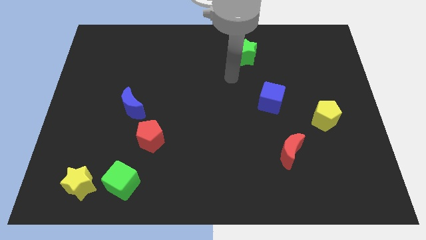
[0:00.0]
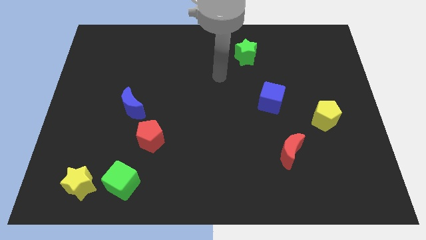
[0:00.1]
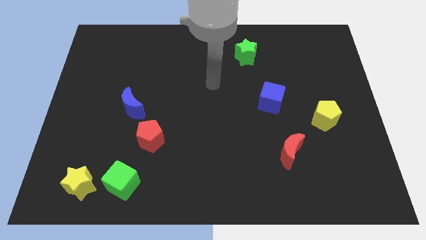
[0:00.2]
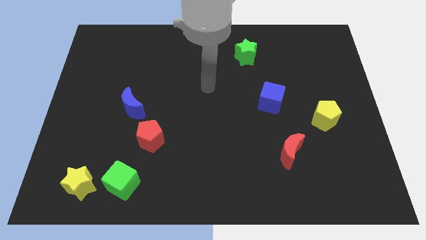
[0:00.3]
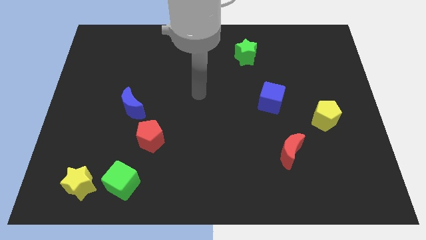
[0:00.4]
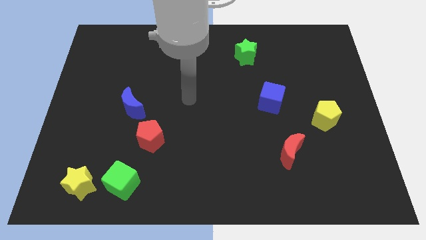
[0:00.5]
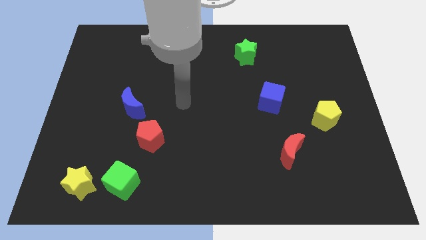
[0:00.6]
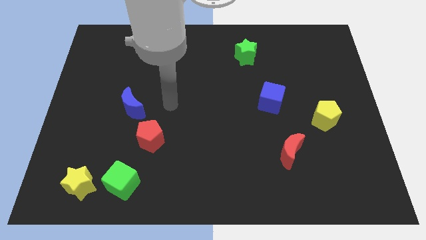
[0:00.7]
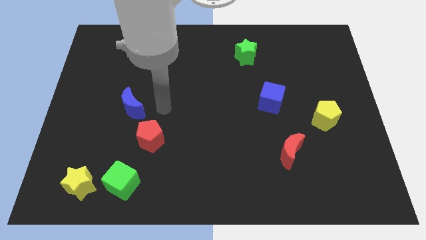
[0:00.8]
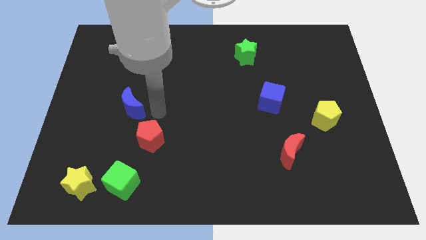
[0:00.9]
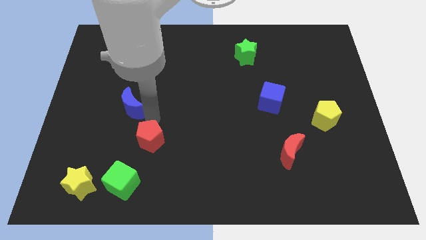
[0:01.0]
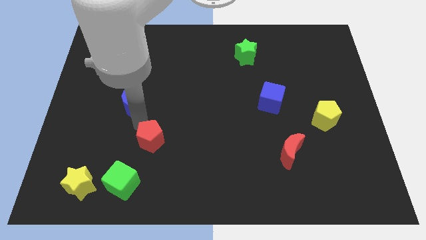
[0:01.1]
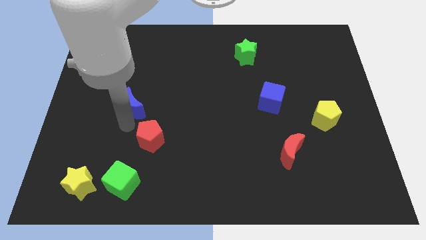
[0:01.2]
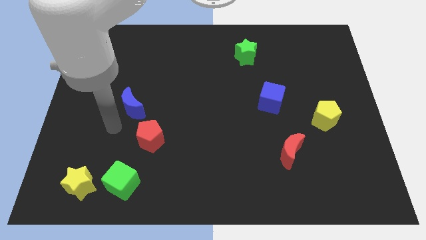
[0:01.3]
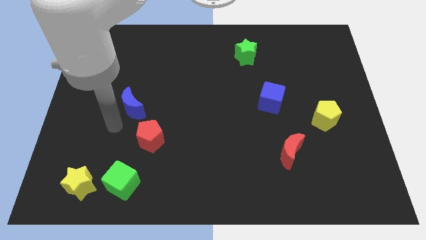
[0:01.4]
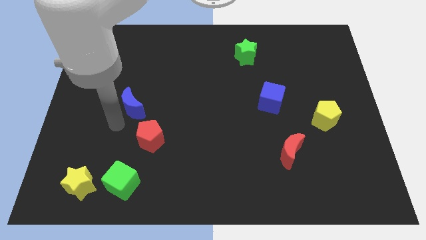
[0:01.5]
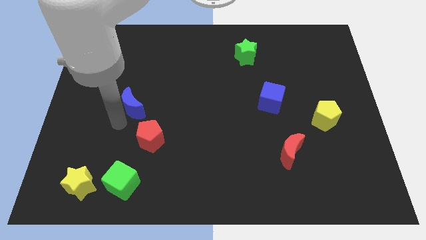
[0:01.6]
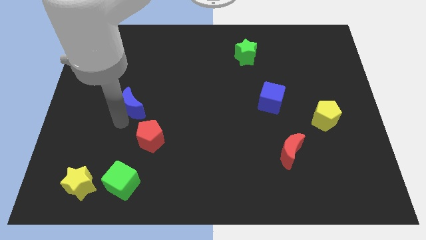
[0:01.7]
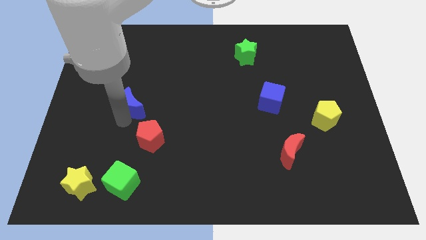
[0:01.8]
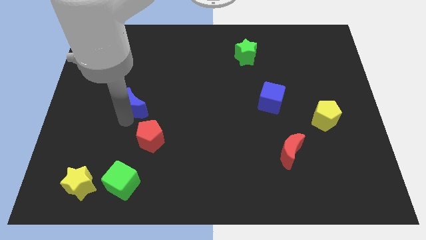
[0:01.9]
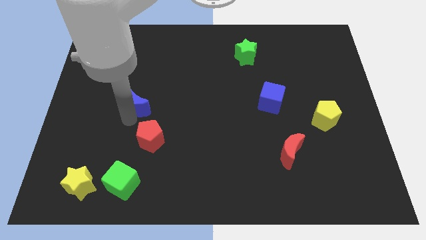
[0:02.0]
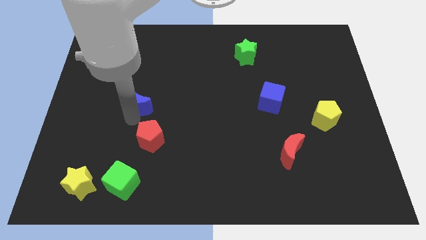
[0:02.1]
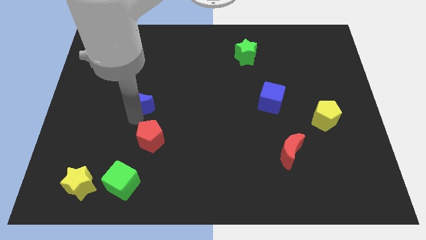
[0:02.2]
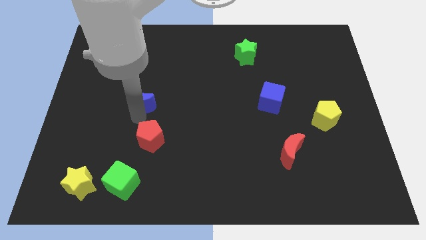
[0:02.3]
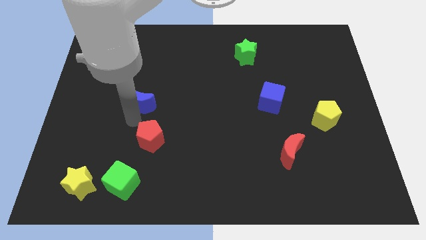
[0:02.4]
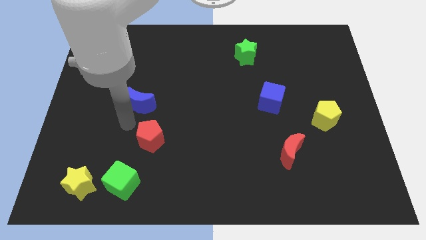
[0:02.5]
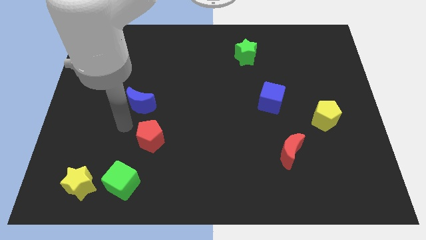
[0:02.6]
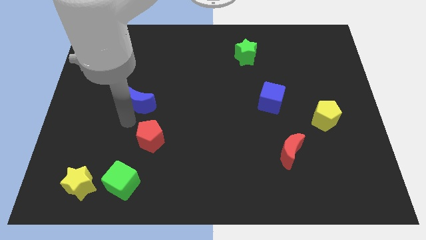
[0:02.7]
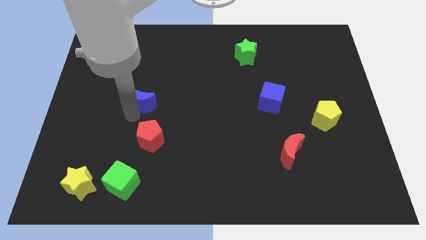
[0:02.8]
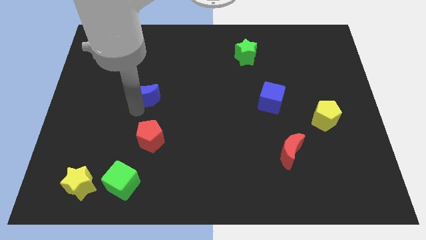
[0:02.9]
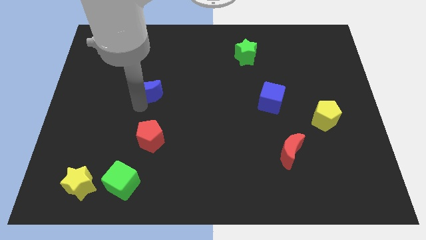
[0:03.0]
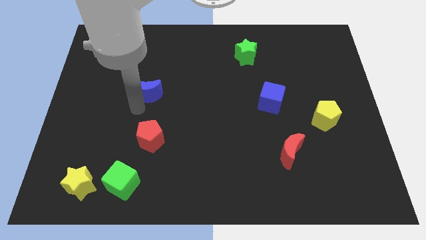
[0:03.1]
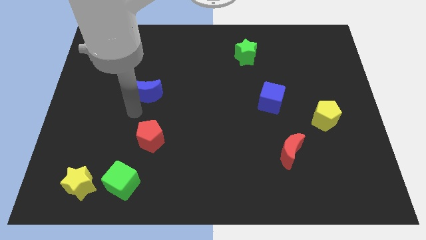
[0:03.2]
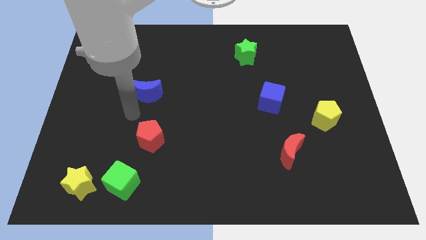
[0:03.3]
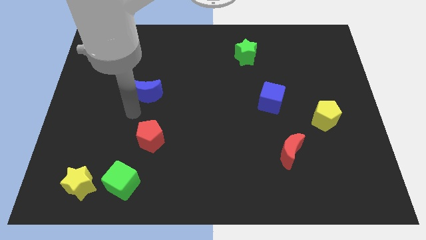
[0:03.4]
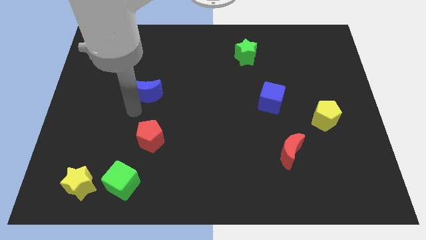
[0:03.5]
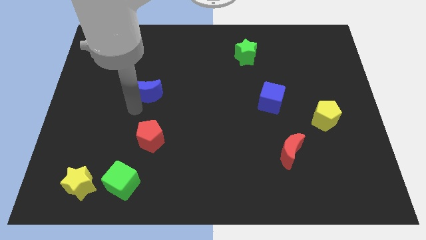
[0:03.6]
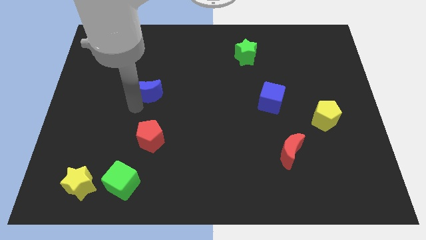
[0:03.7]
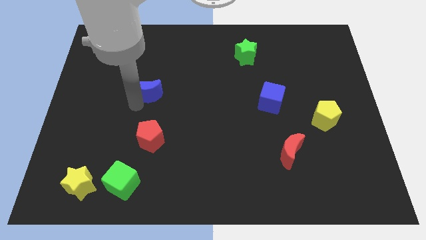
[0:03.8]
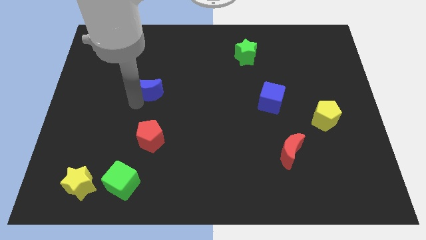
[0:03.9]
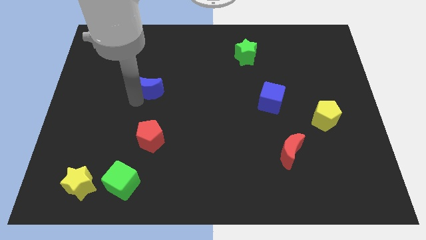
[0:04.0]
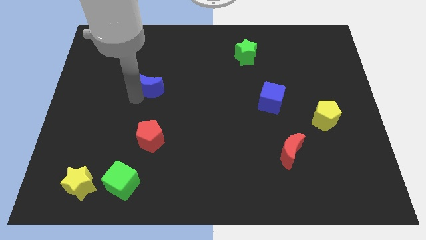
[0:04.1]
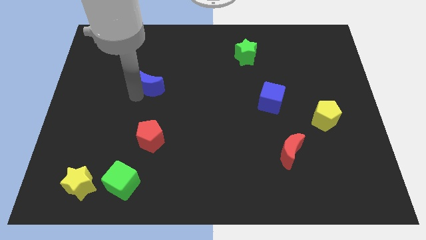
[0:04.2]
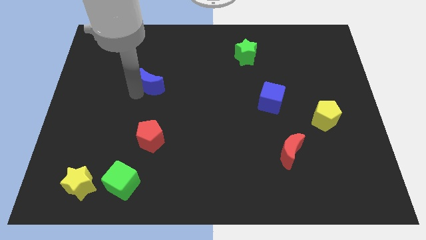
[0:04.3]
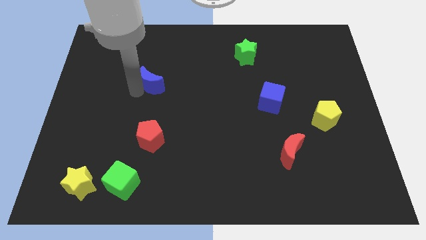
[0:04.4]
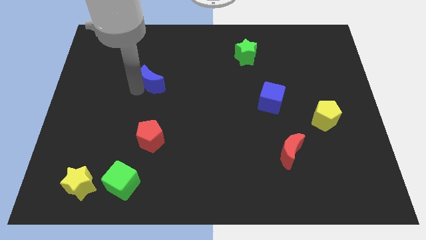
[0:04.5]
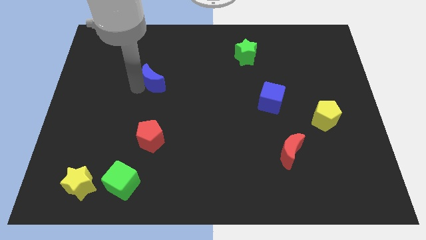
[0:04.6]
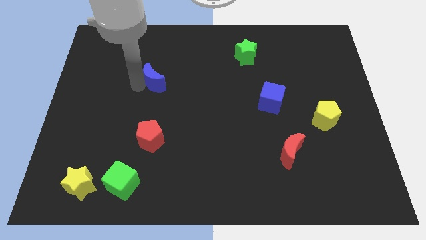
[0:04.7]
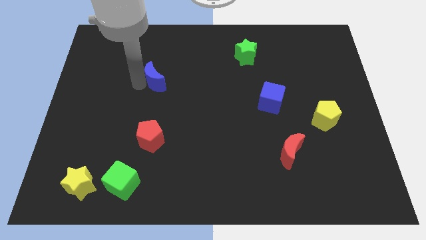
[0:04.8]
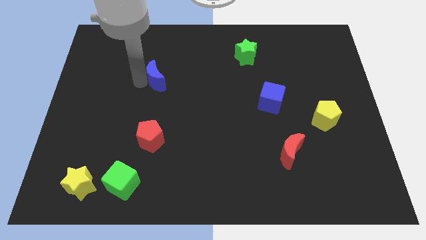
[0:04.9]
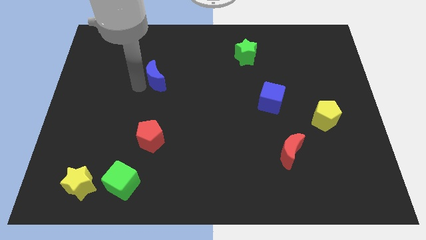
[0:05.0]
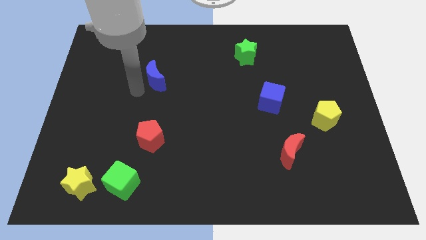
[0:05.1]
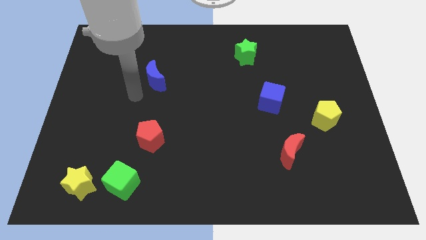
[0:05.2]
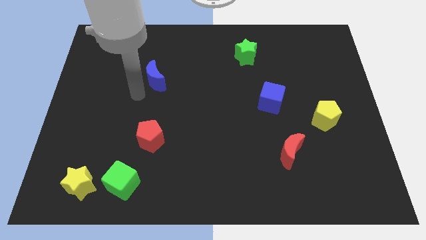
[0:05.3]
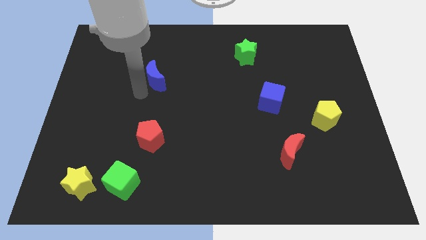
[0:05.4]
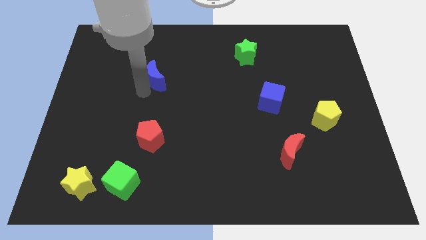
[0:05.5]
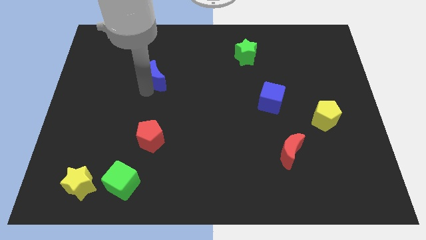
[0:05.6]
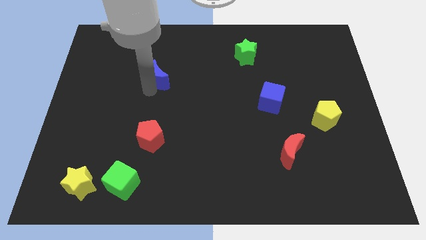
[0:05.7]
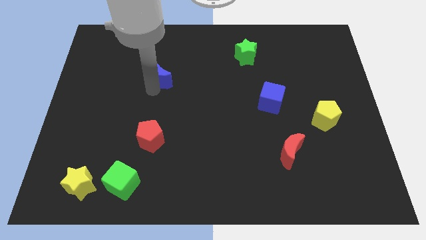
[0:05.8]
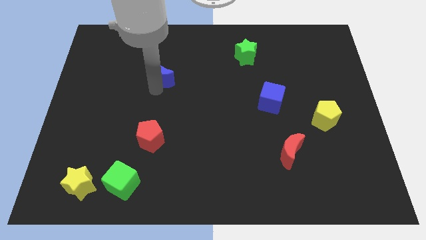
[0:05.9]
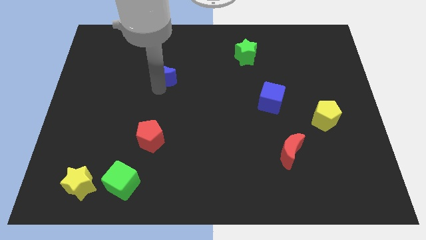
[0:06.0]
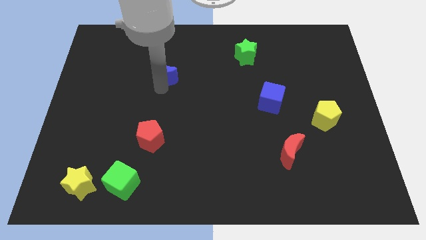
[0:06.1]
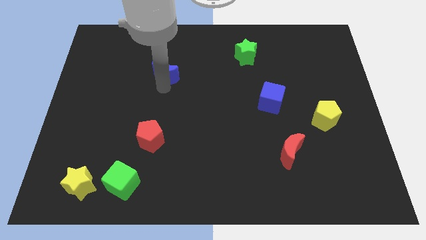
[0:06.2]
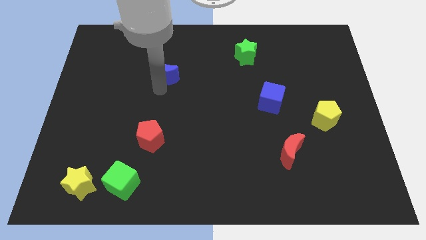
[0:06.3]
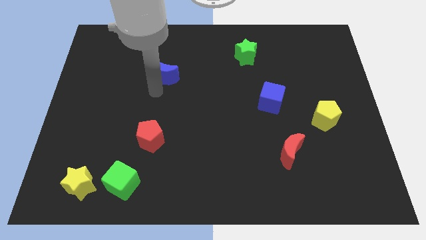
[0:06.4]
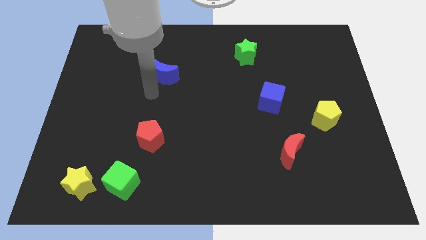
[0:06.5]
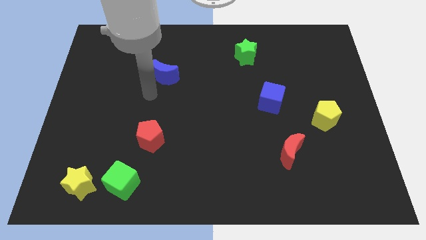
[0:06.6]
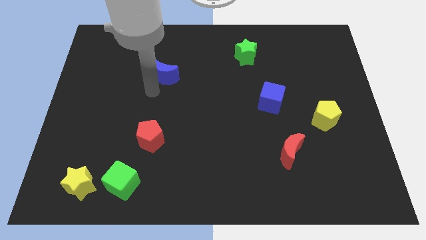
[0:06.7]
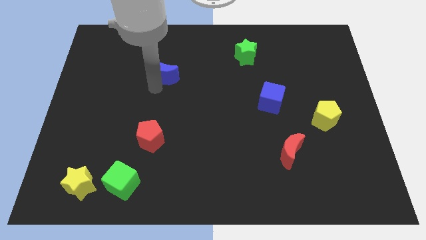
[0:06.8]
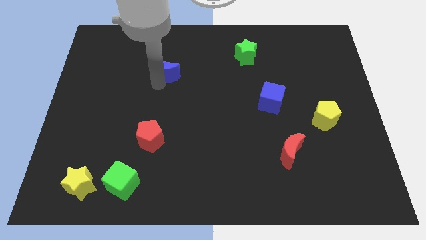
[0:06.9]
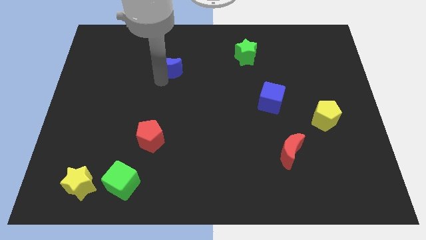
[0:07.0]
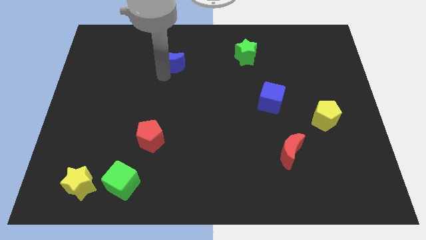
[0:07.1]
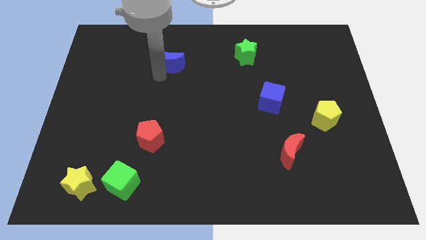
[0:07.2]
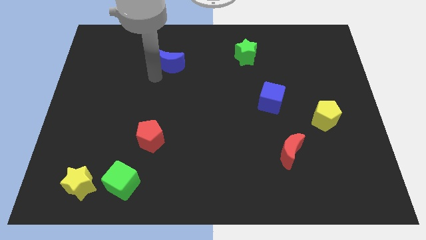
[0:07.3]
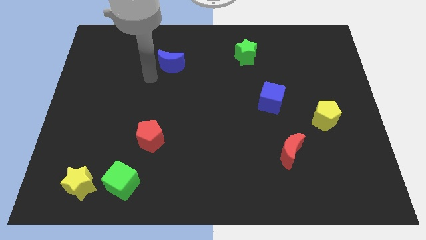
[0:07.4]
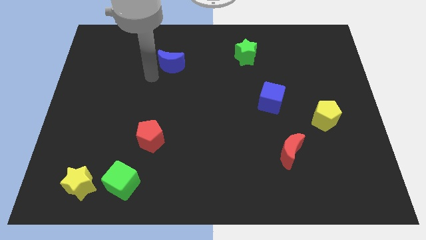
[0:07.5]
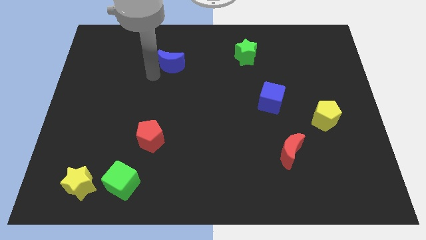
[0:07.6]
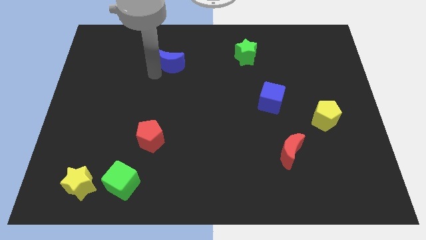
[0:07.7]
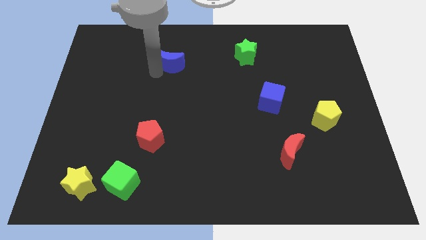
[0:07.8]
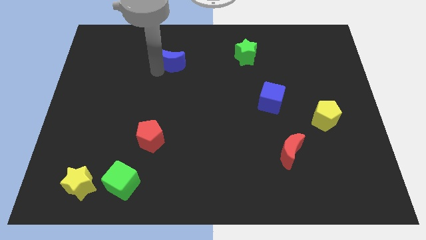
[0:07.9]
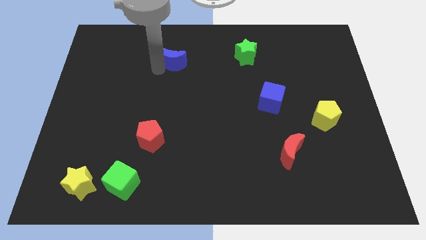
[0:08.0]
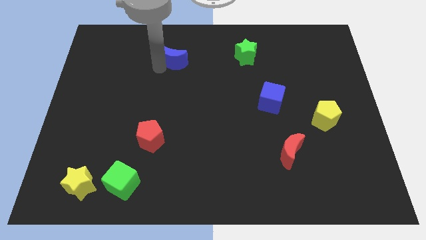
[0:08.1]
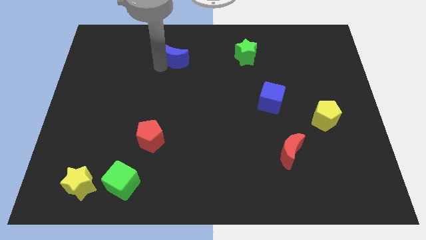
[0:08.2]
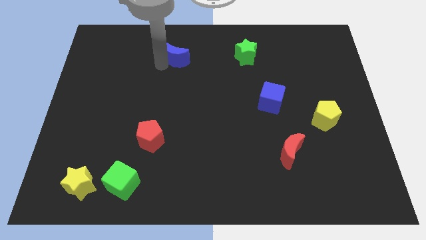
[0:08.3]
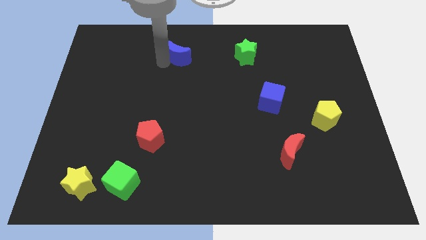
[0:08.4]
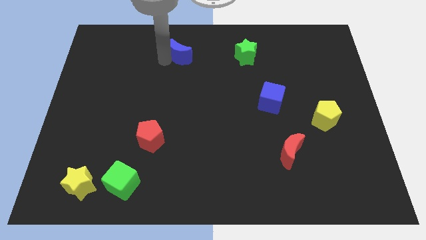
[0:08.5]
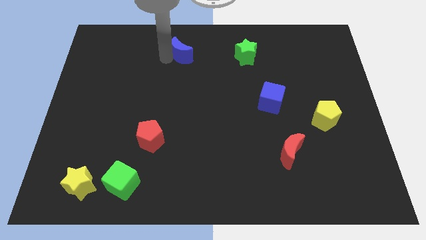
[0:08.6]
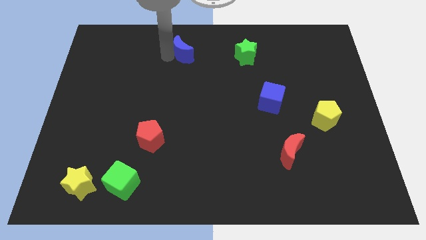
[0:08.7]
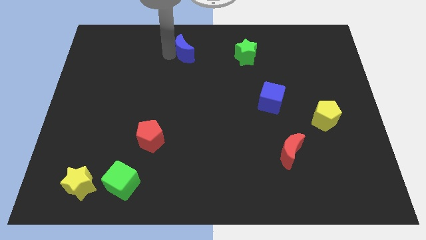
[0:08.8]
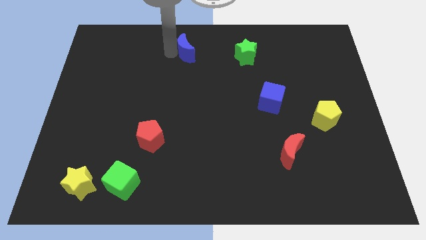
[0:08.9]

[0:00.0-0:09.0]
slide the blue moon to the top side
